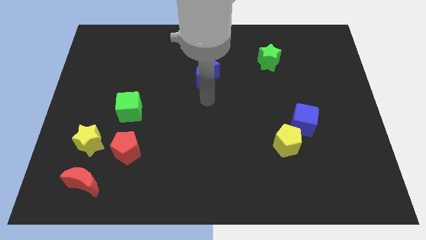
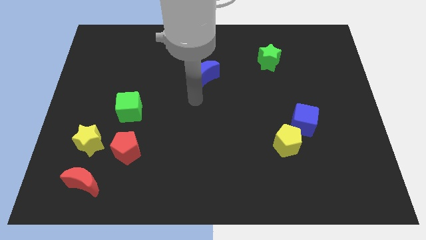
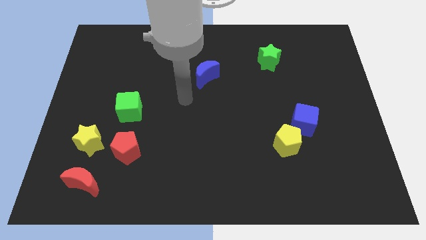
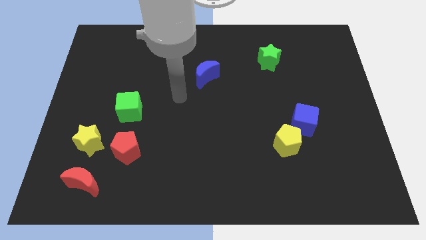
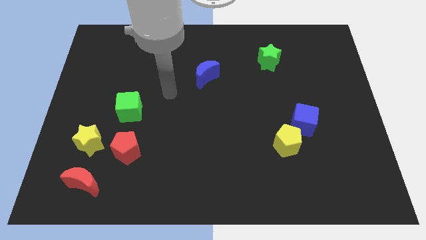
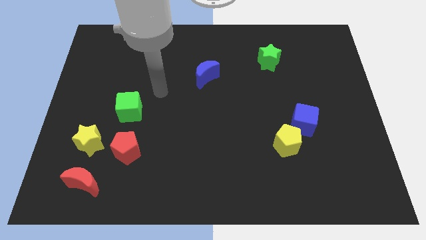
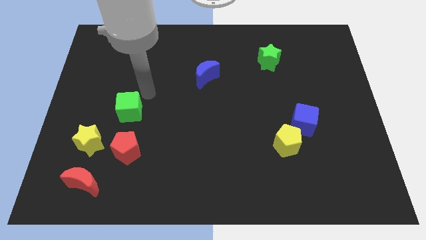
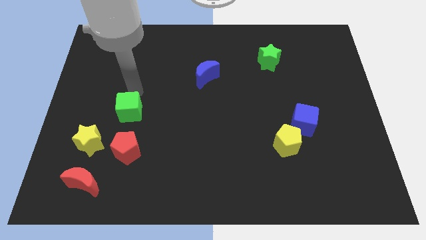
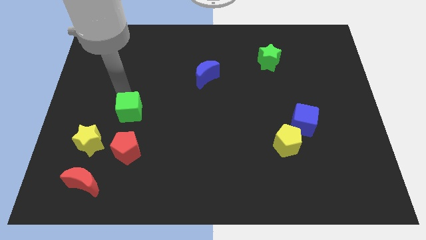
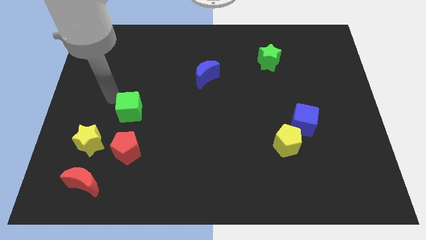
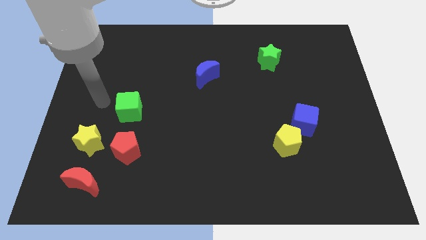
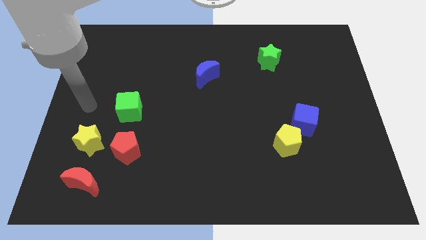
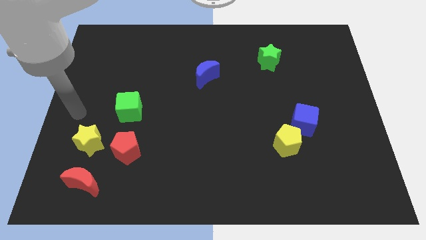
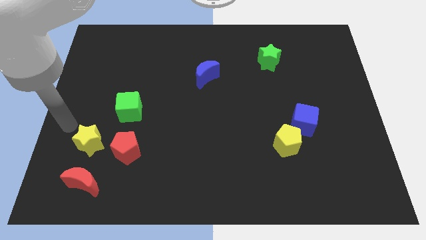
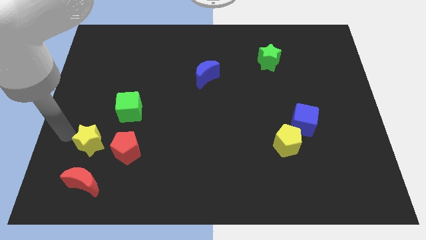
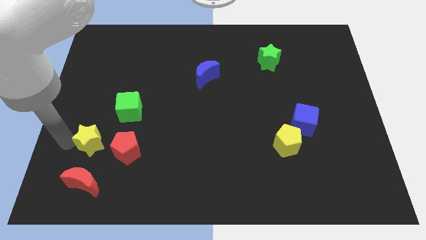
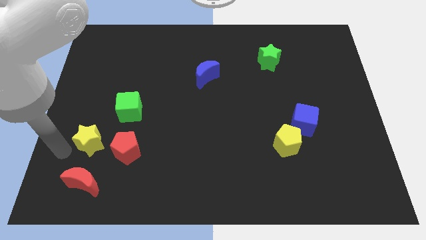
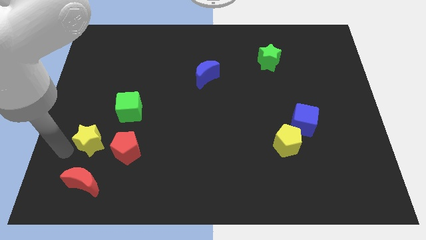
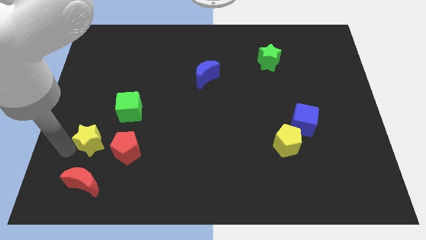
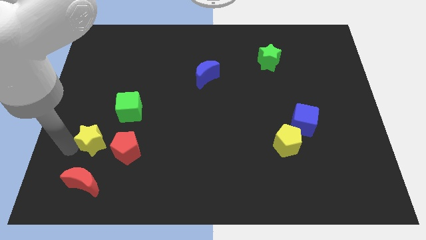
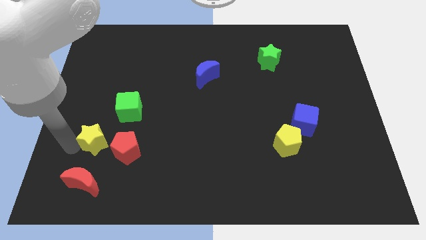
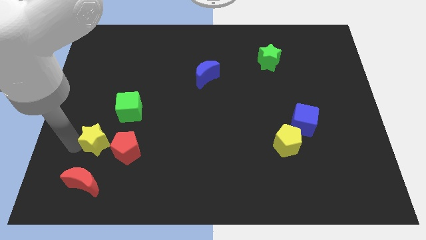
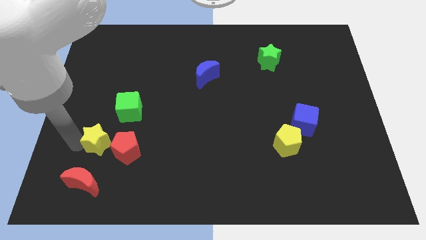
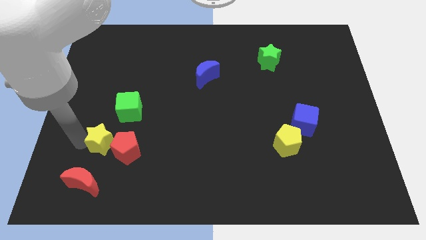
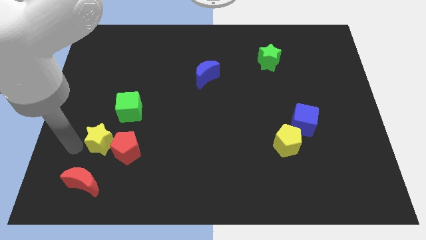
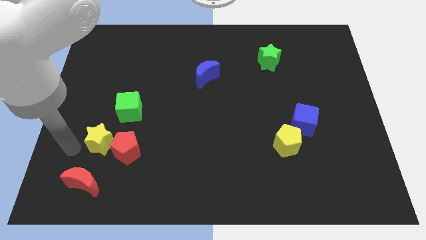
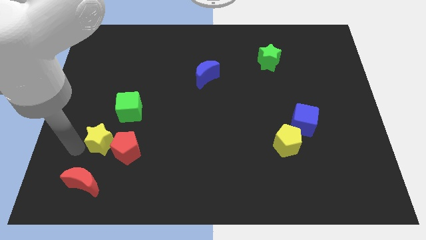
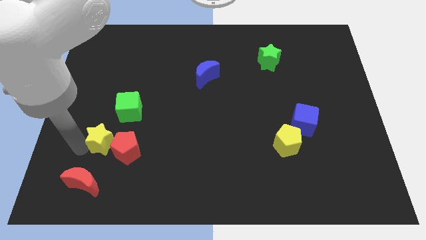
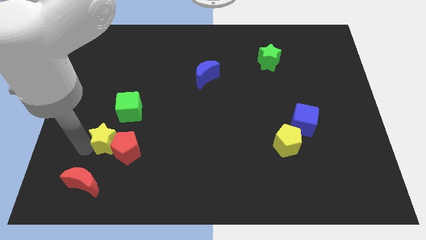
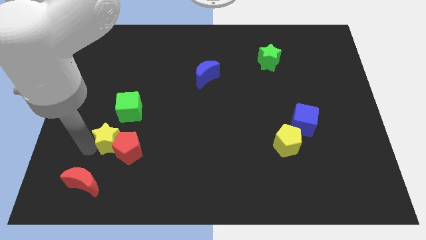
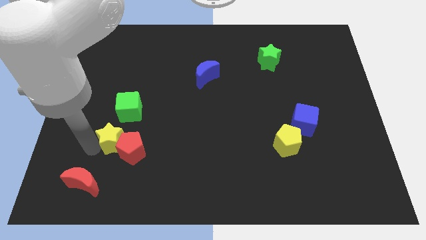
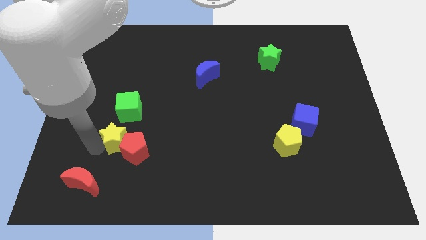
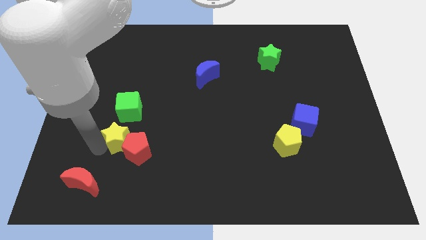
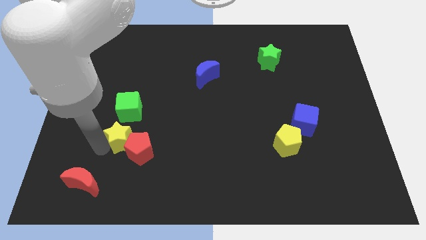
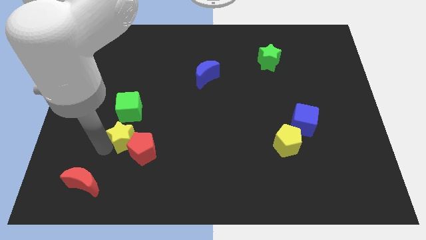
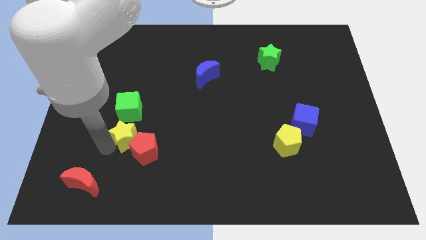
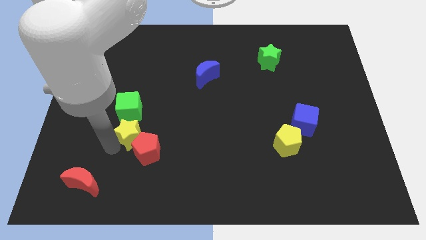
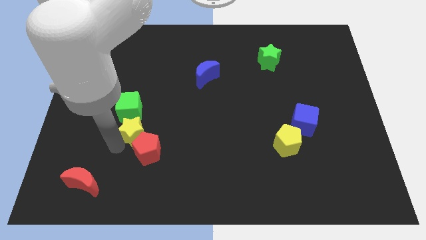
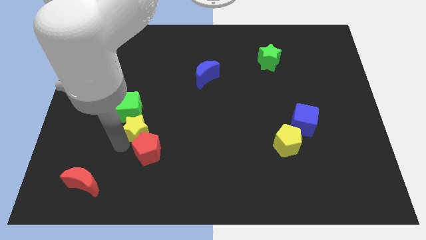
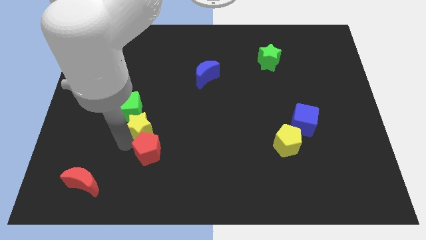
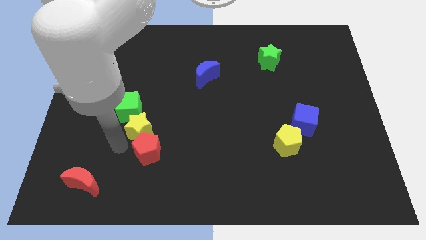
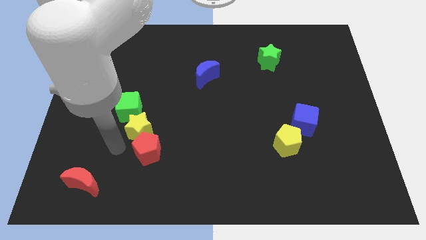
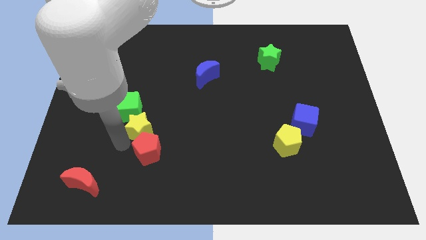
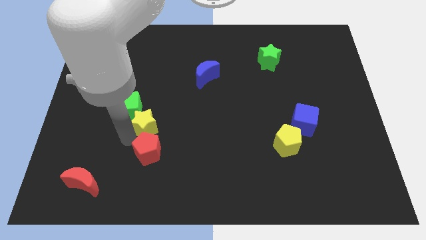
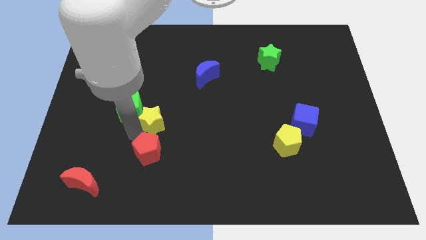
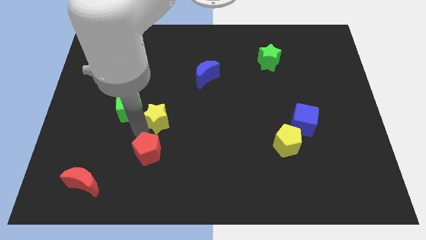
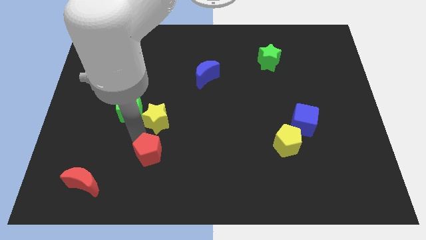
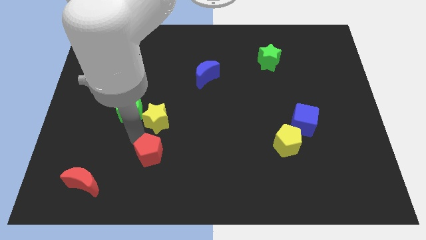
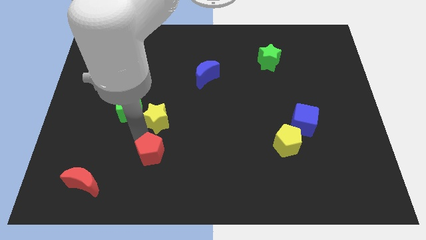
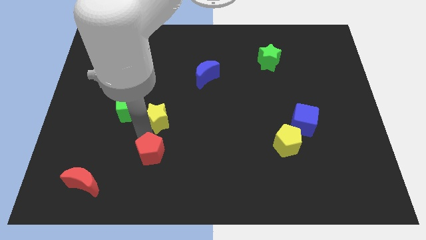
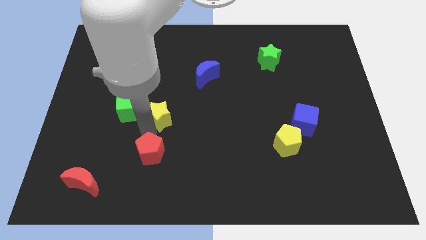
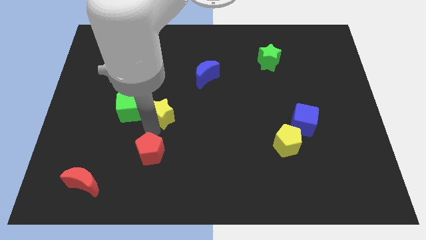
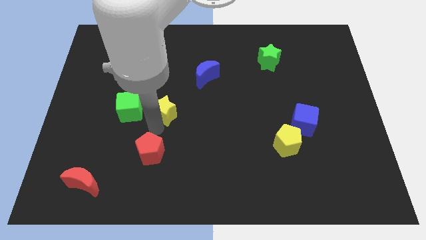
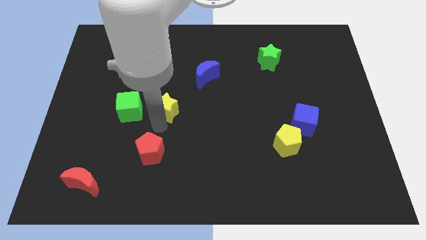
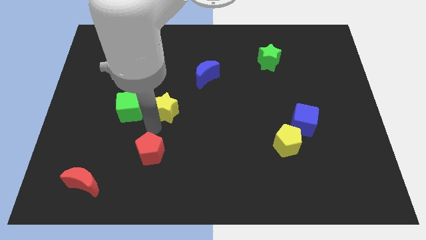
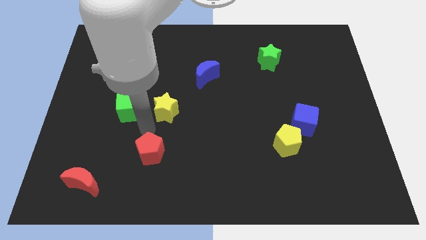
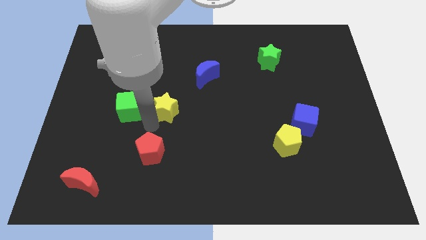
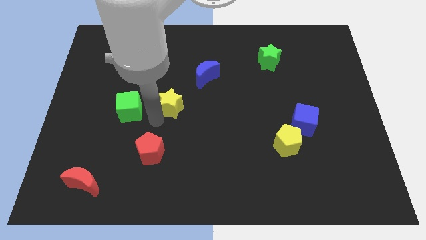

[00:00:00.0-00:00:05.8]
move the yellow star to the bottom left side of the blue moon

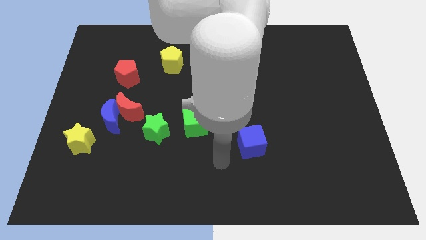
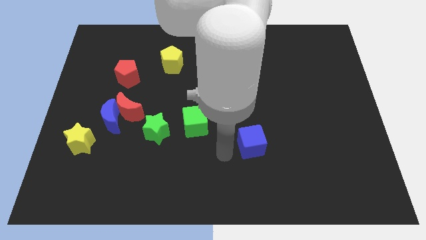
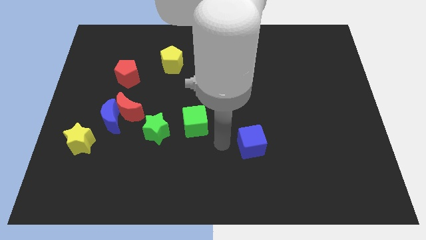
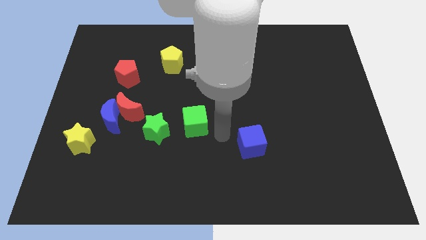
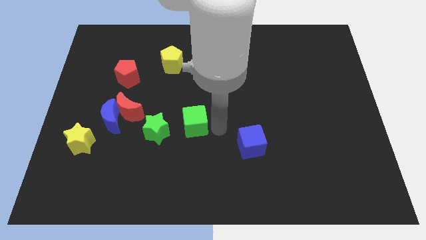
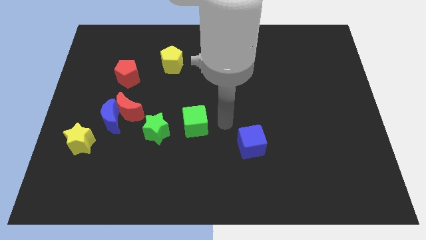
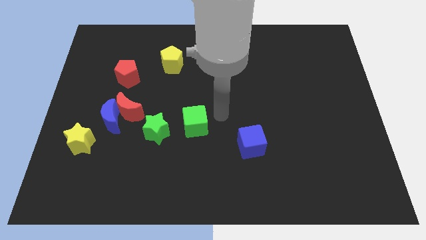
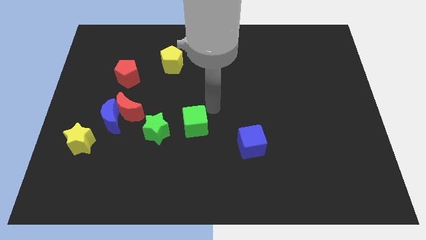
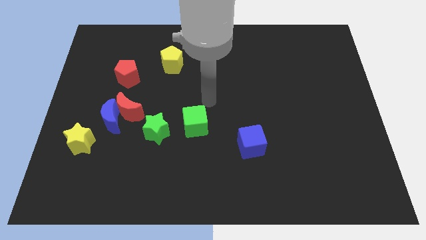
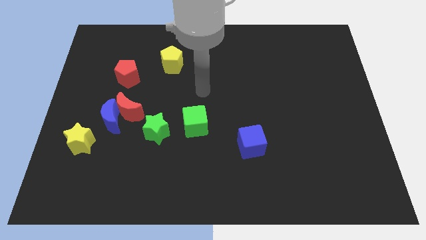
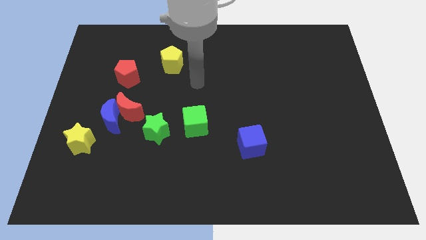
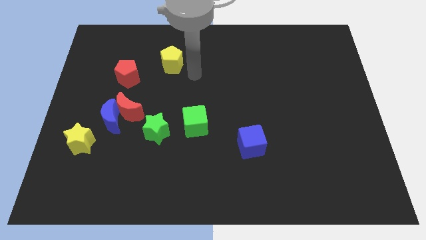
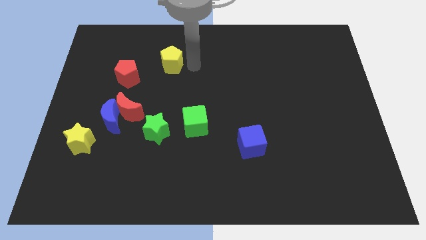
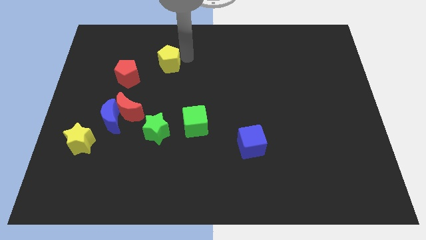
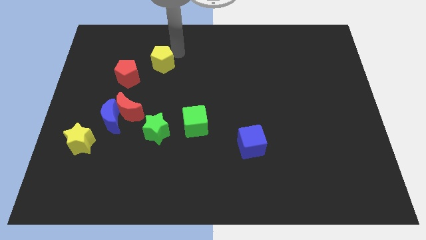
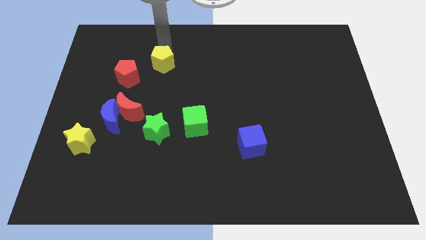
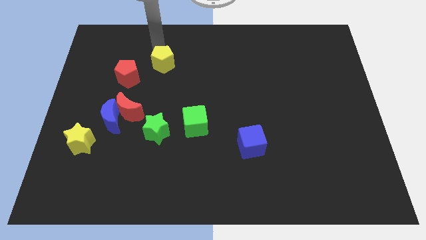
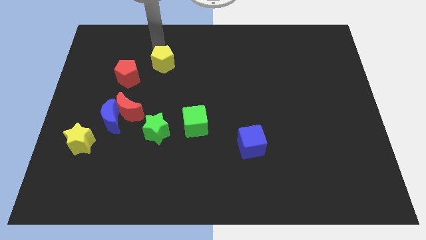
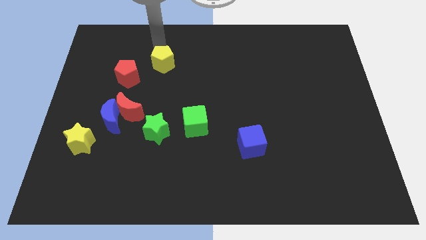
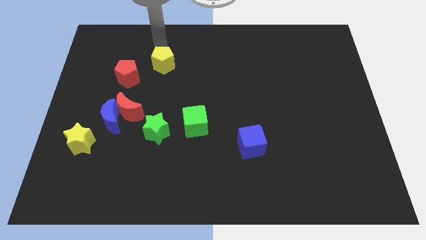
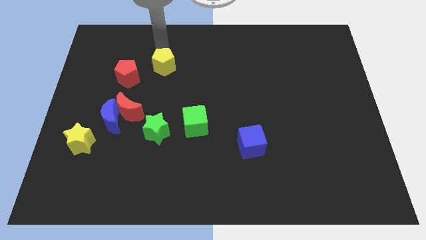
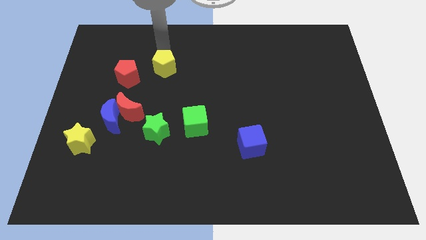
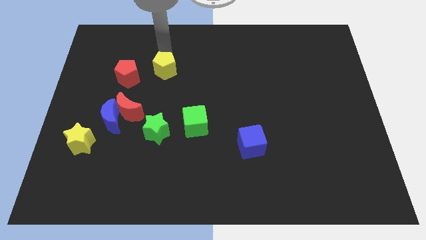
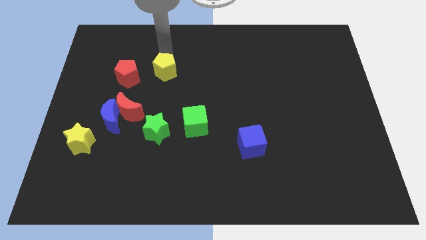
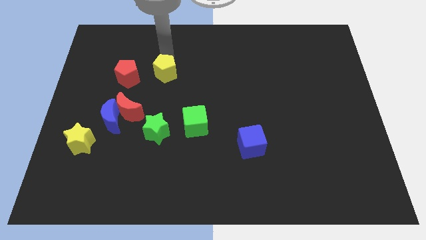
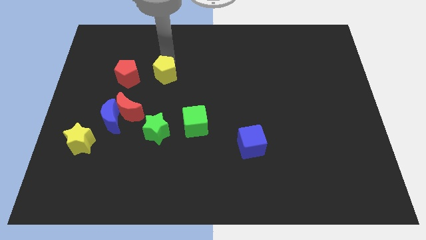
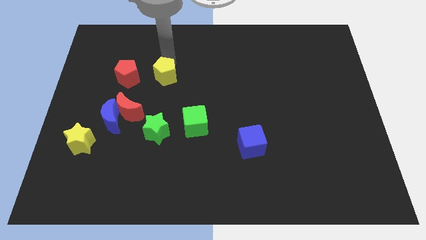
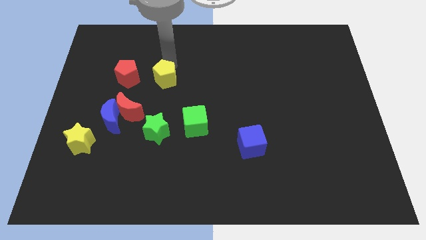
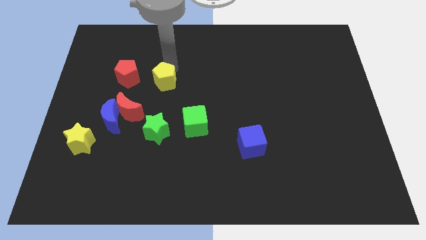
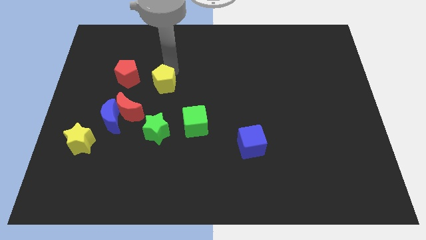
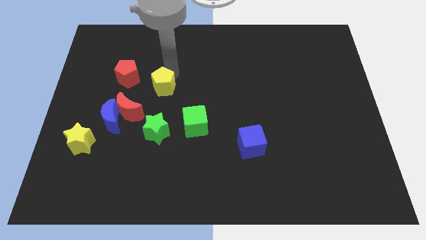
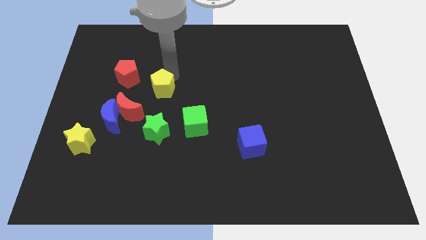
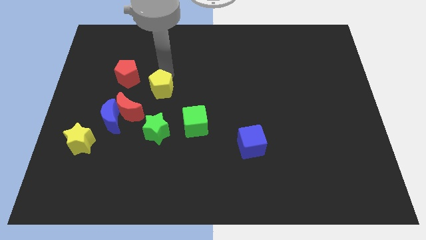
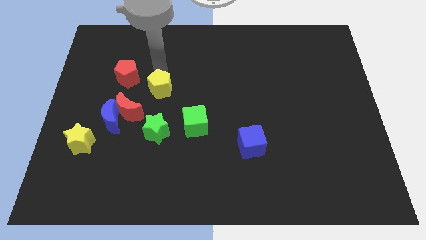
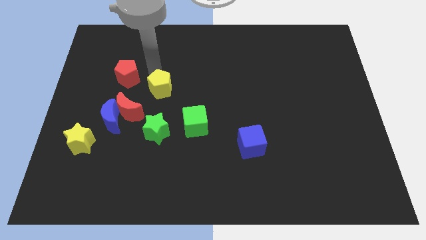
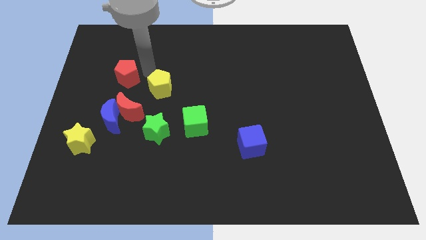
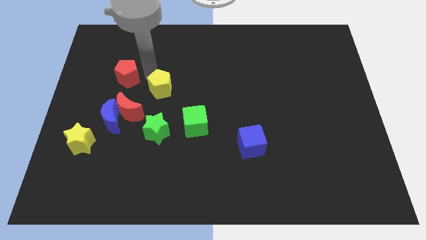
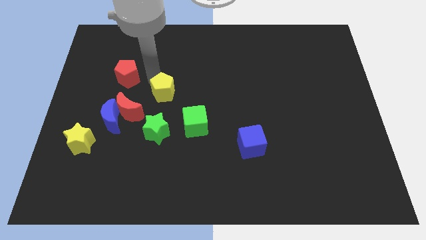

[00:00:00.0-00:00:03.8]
put the yellow pentagon to the top left side of the green cube
